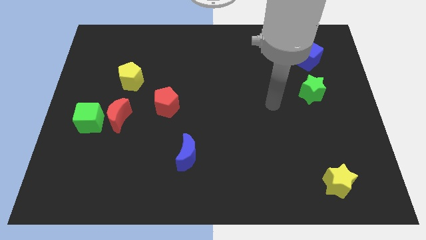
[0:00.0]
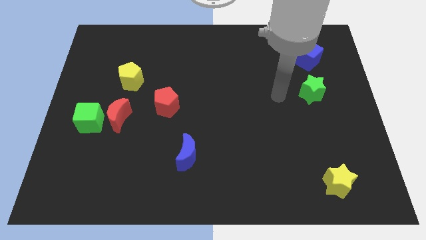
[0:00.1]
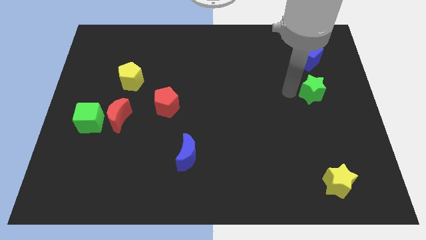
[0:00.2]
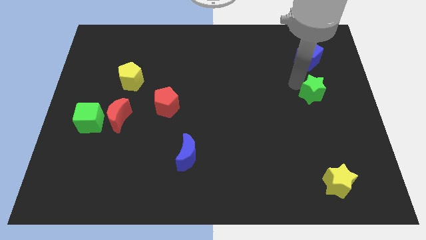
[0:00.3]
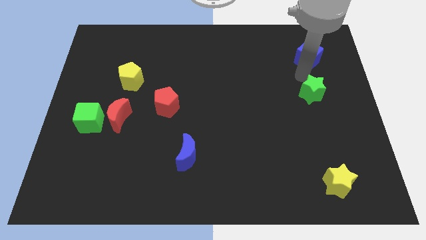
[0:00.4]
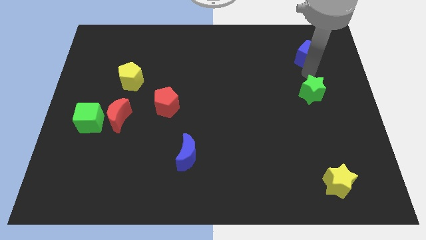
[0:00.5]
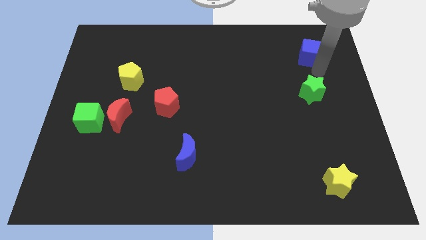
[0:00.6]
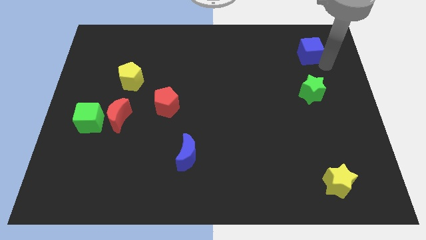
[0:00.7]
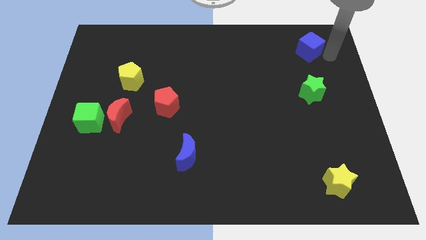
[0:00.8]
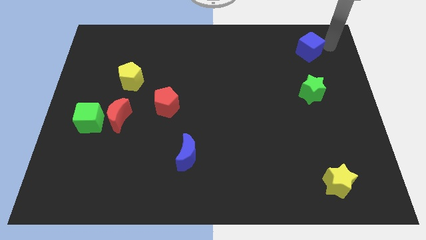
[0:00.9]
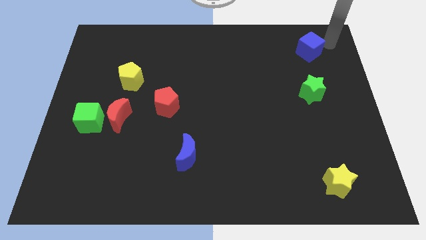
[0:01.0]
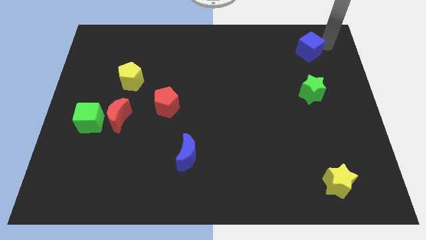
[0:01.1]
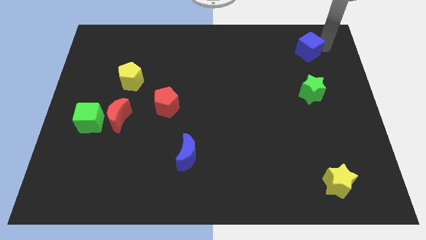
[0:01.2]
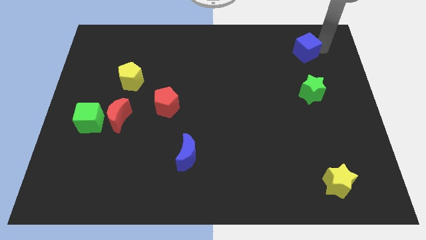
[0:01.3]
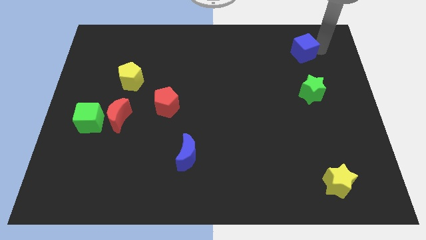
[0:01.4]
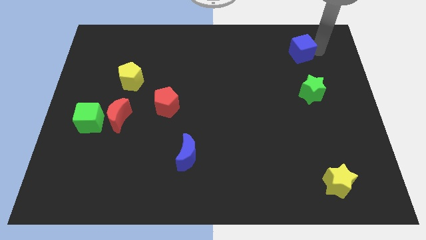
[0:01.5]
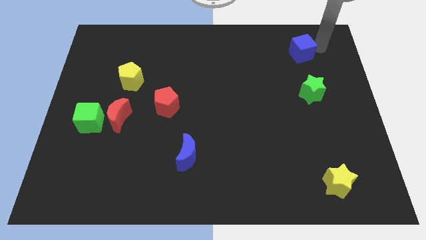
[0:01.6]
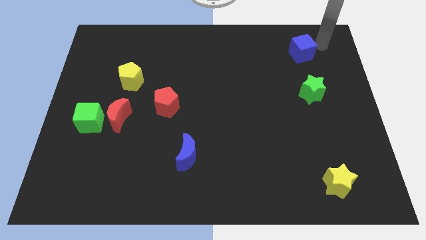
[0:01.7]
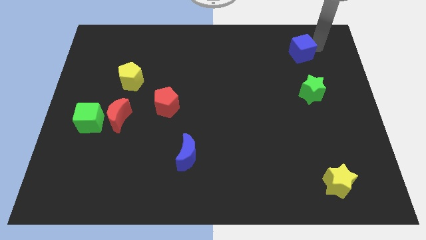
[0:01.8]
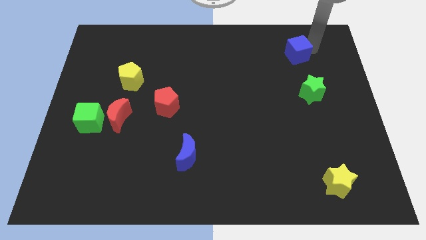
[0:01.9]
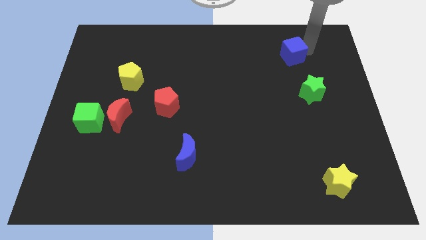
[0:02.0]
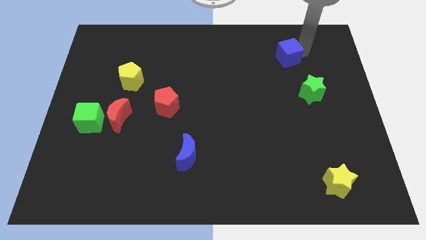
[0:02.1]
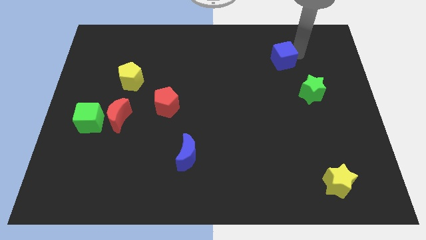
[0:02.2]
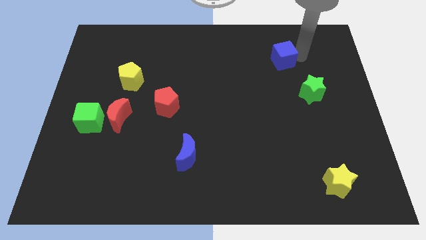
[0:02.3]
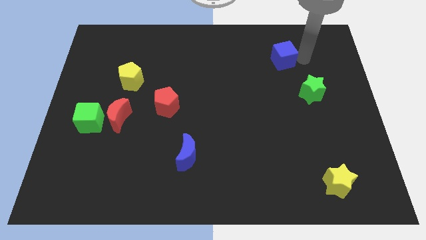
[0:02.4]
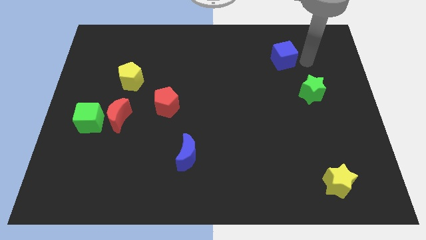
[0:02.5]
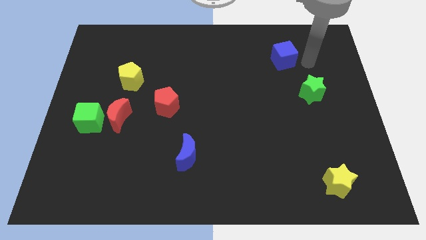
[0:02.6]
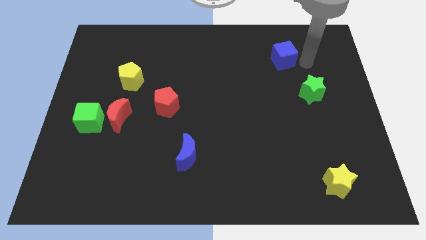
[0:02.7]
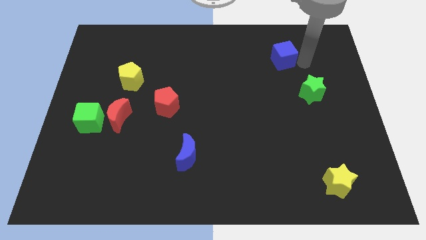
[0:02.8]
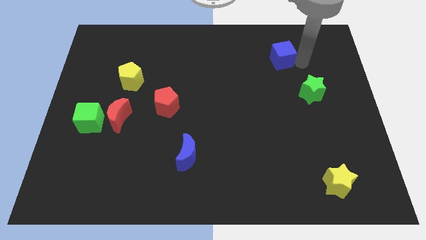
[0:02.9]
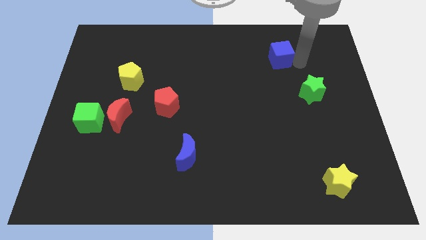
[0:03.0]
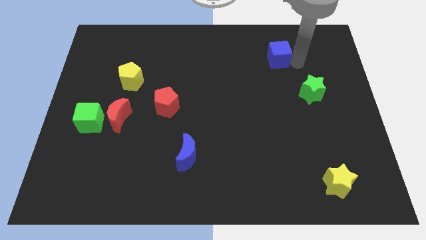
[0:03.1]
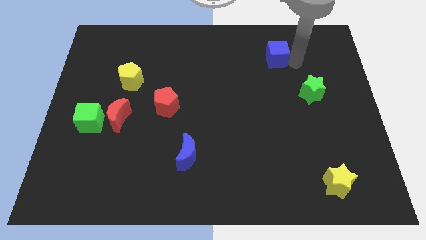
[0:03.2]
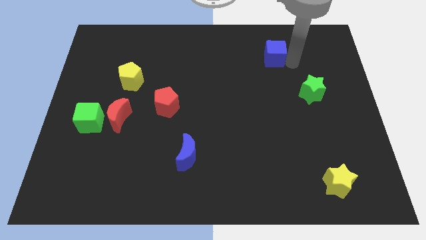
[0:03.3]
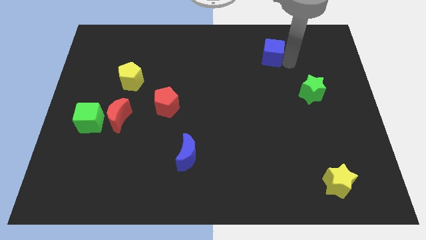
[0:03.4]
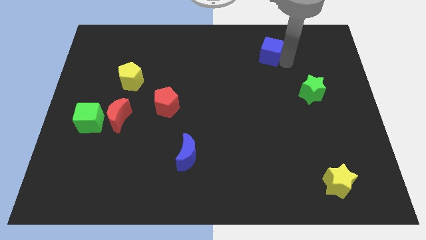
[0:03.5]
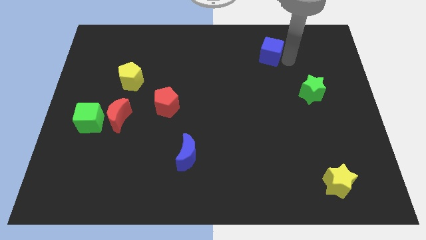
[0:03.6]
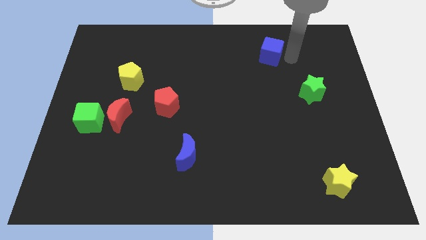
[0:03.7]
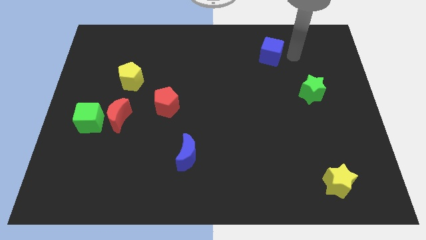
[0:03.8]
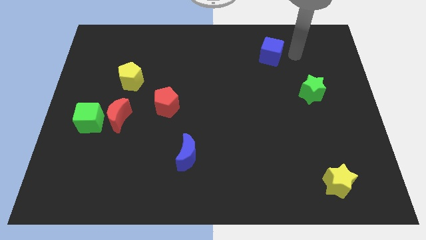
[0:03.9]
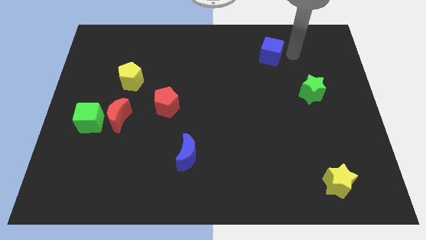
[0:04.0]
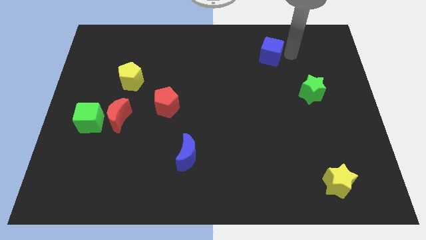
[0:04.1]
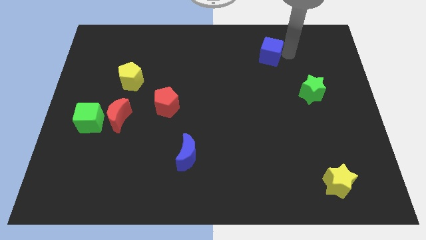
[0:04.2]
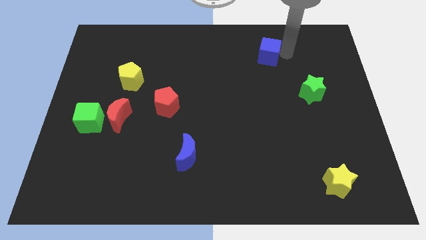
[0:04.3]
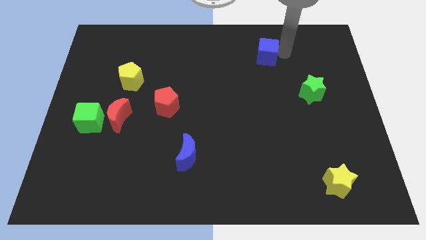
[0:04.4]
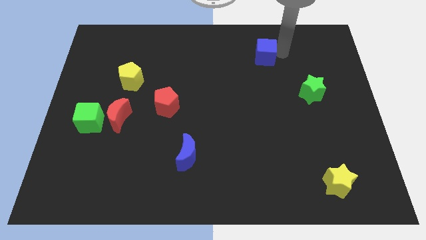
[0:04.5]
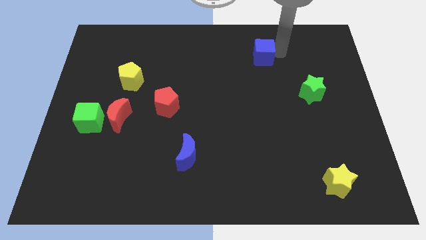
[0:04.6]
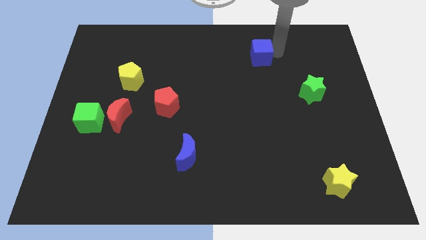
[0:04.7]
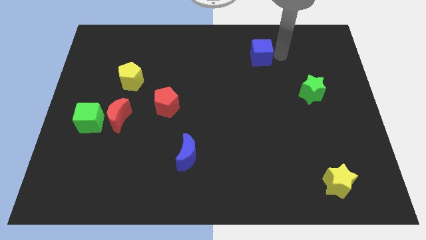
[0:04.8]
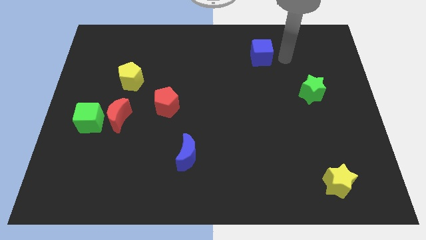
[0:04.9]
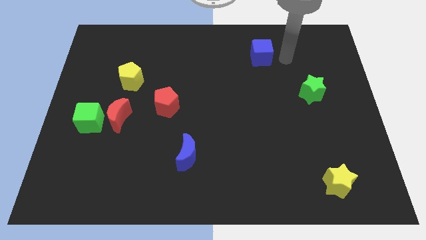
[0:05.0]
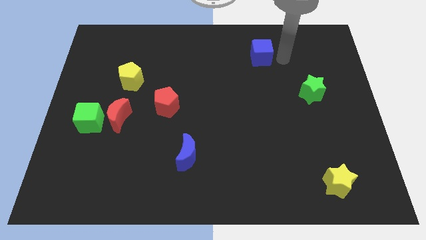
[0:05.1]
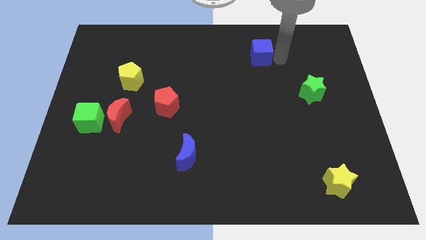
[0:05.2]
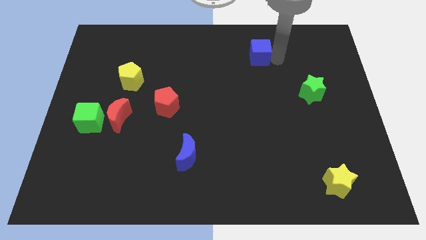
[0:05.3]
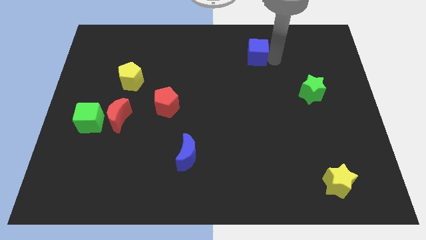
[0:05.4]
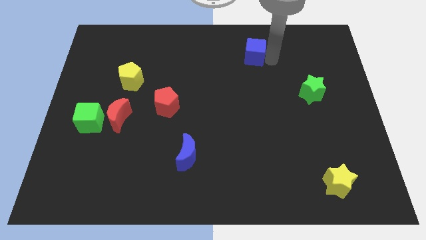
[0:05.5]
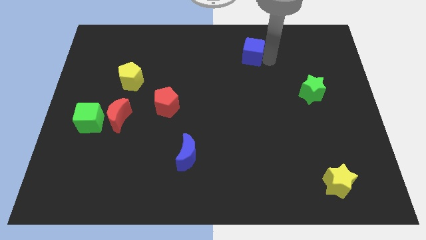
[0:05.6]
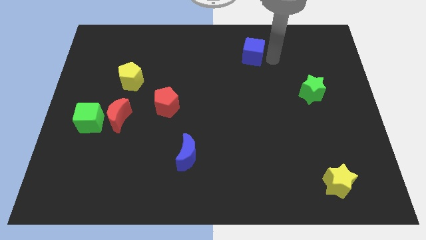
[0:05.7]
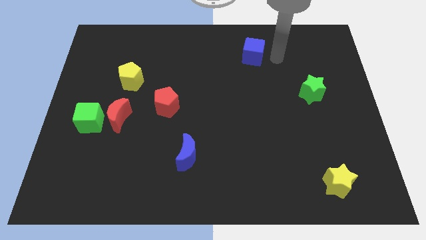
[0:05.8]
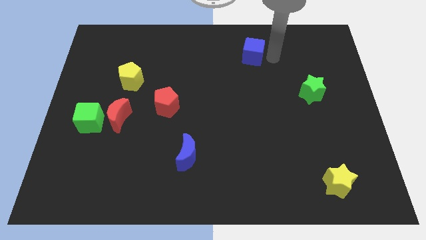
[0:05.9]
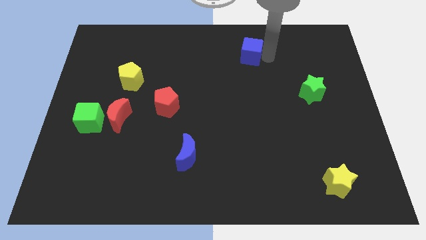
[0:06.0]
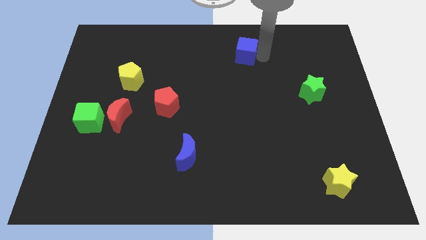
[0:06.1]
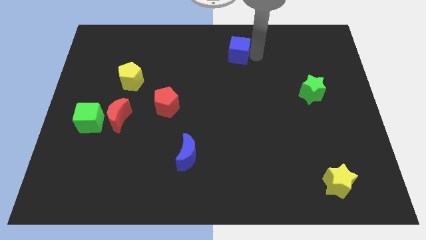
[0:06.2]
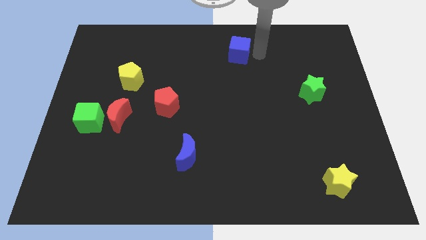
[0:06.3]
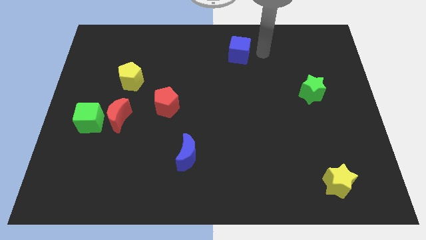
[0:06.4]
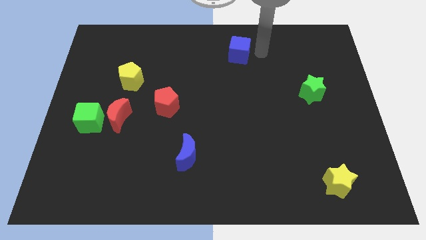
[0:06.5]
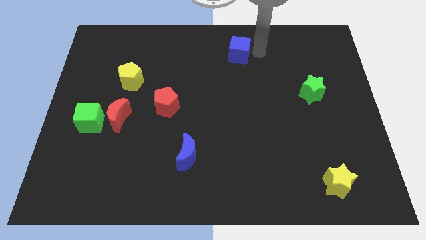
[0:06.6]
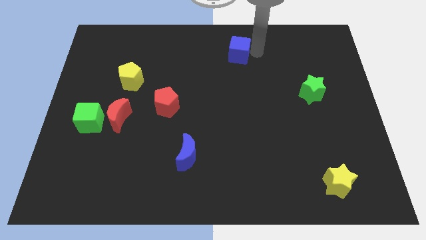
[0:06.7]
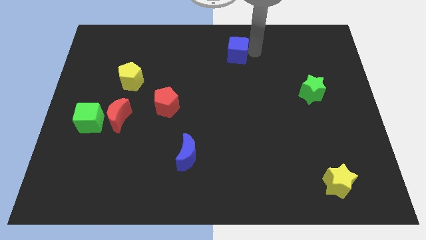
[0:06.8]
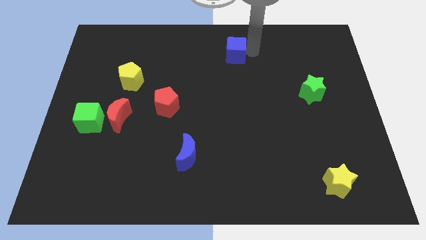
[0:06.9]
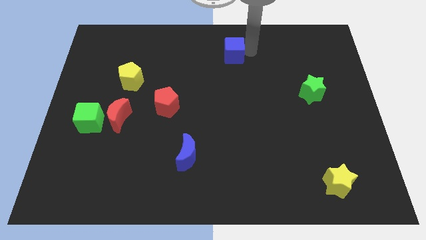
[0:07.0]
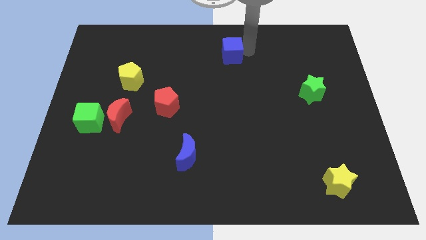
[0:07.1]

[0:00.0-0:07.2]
push the blue cube left

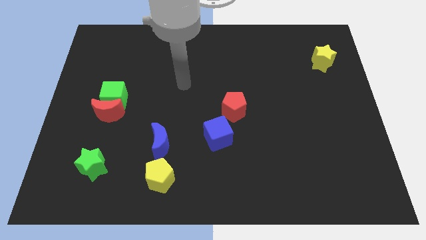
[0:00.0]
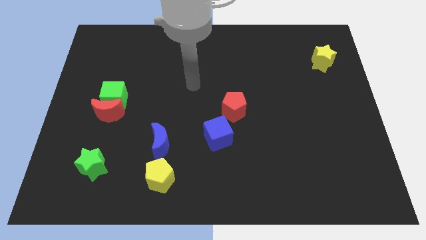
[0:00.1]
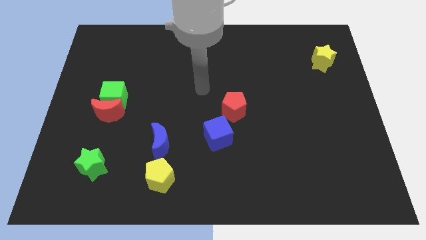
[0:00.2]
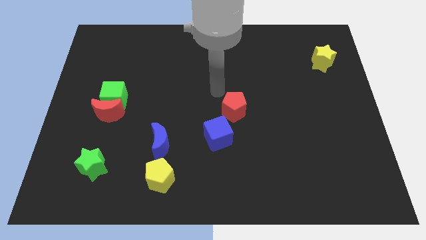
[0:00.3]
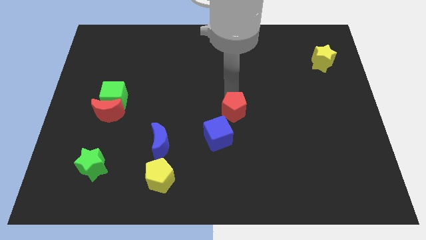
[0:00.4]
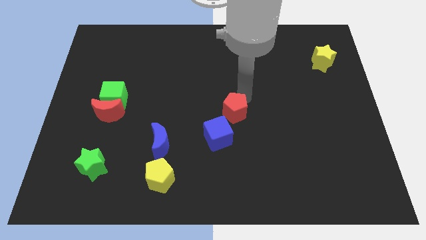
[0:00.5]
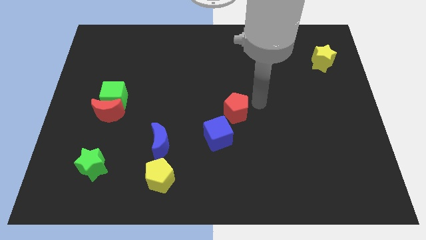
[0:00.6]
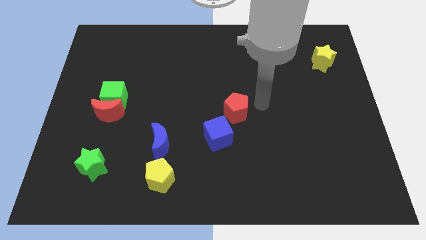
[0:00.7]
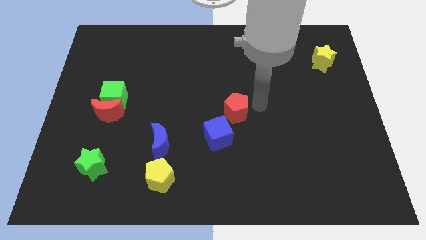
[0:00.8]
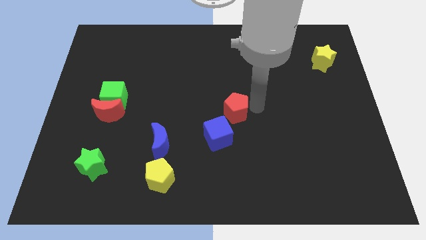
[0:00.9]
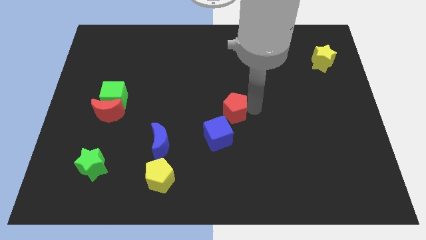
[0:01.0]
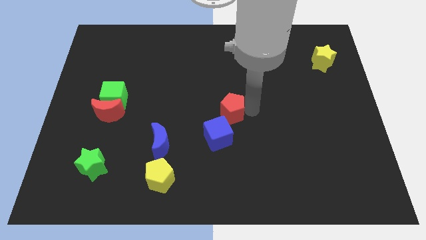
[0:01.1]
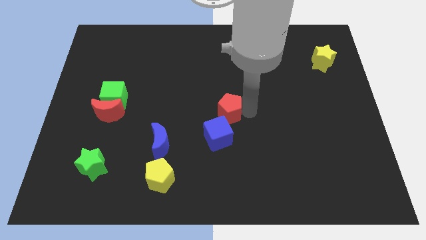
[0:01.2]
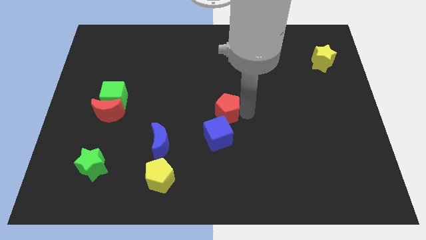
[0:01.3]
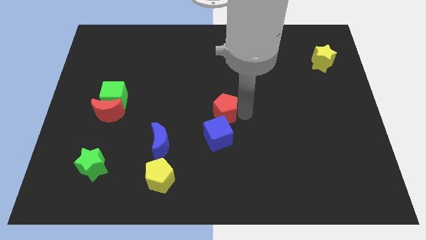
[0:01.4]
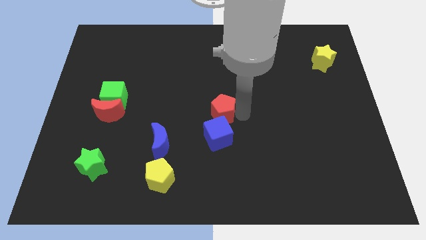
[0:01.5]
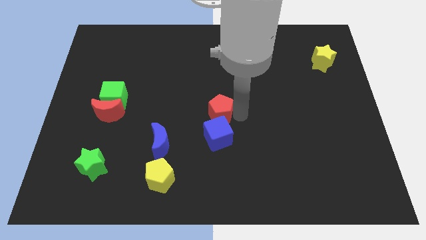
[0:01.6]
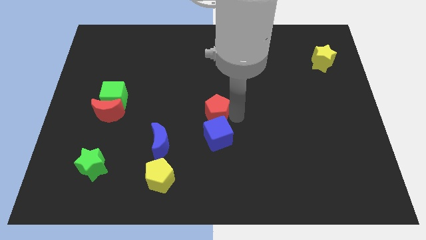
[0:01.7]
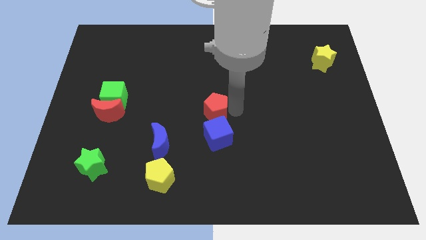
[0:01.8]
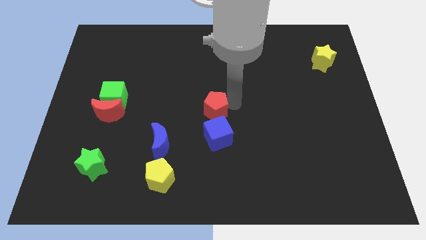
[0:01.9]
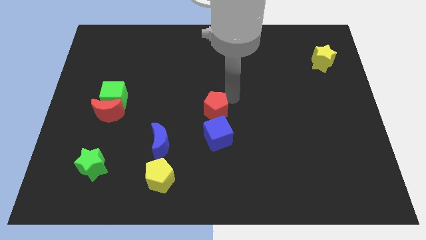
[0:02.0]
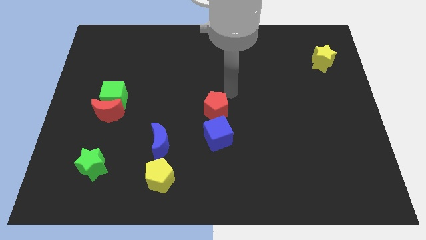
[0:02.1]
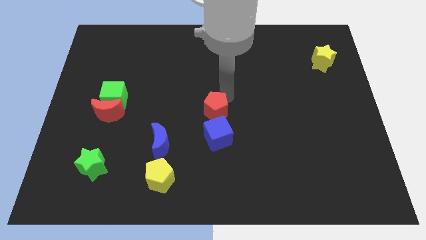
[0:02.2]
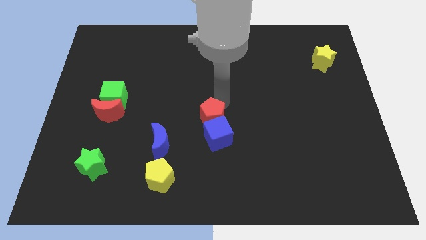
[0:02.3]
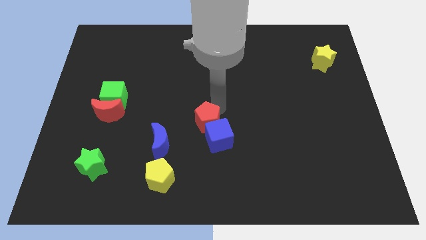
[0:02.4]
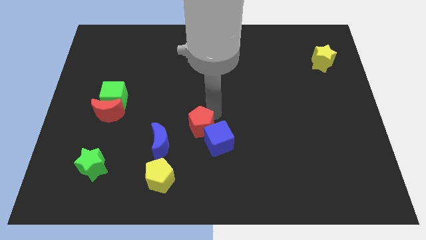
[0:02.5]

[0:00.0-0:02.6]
move the red pentagon downwards and left a little
